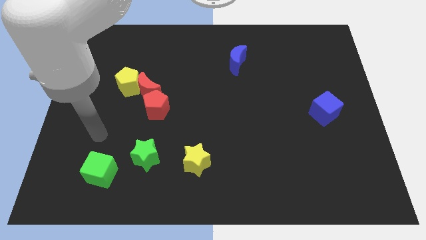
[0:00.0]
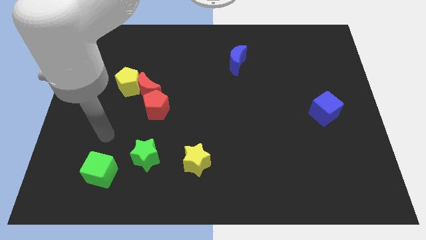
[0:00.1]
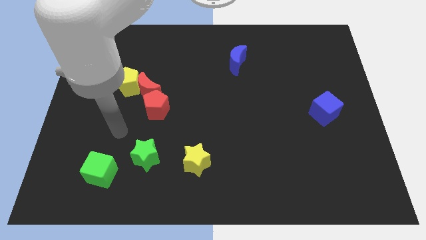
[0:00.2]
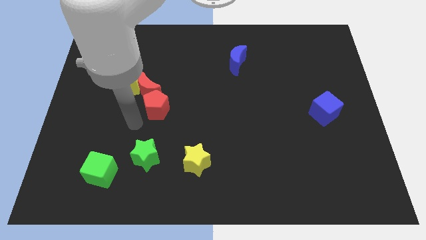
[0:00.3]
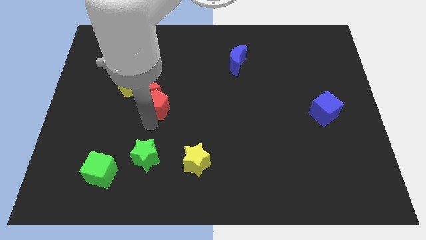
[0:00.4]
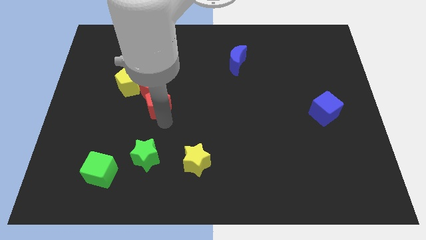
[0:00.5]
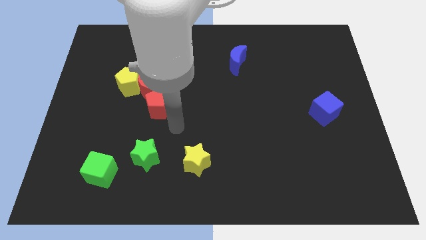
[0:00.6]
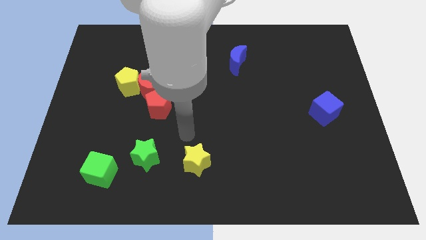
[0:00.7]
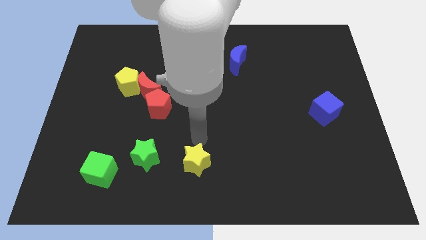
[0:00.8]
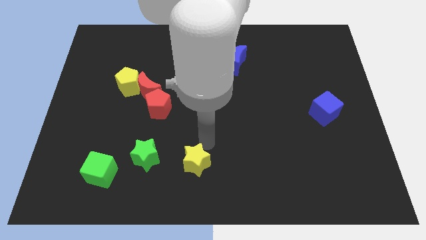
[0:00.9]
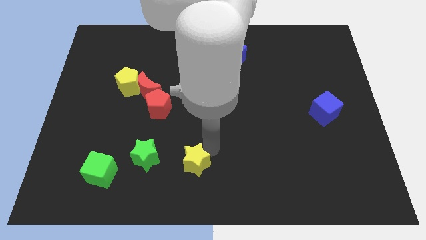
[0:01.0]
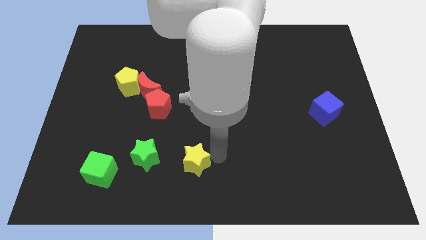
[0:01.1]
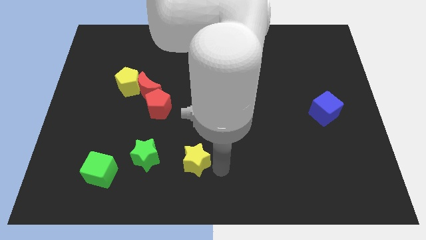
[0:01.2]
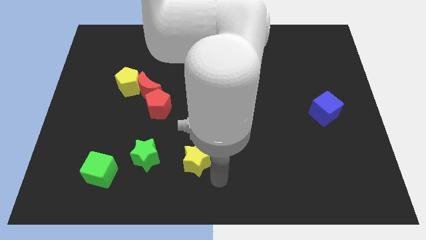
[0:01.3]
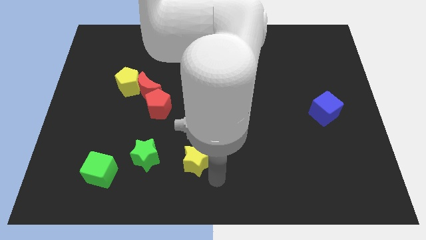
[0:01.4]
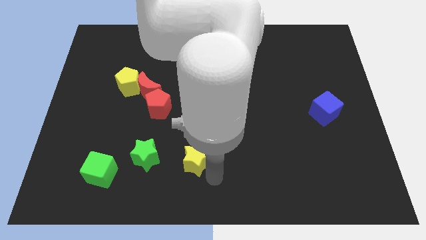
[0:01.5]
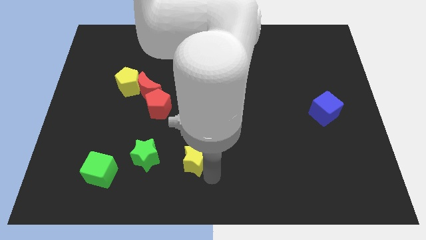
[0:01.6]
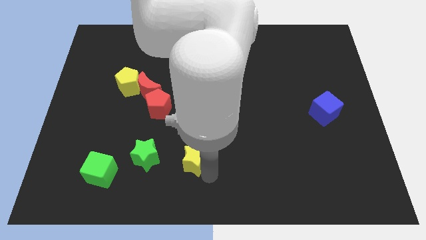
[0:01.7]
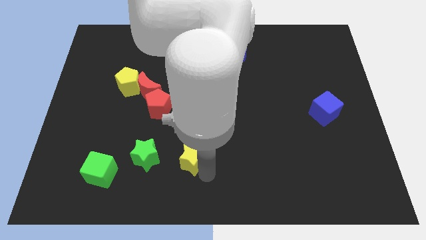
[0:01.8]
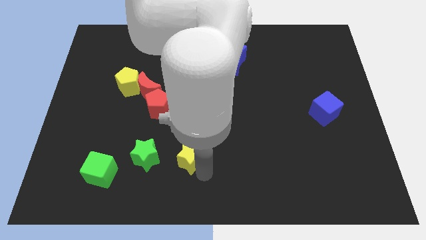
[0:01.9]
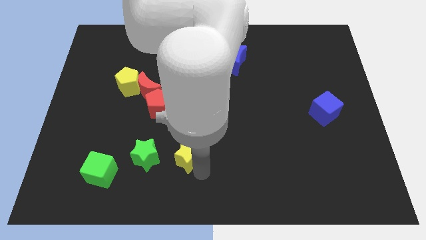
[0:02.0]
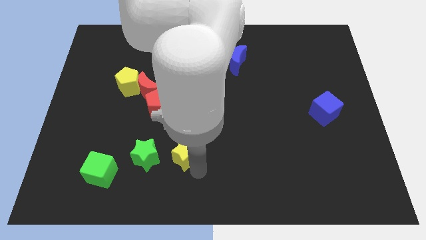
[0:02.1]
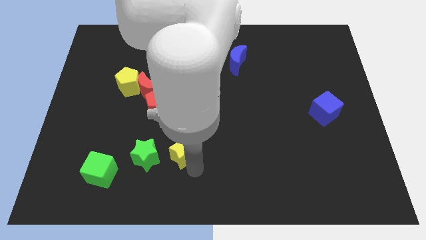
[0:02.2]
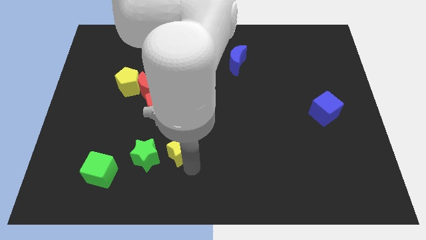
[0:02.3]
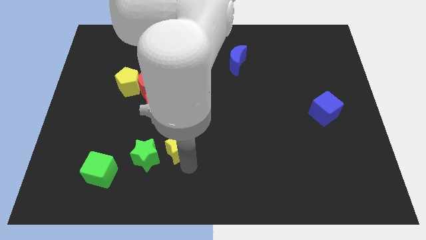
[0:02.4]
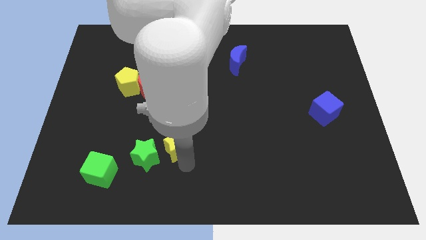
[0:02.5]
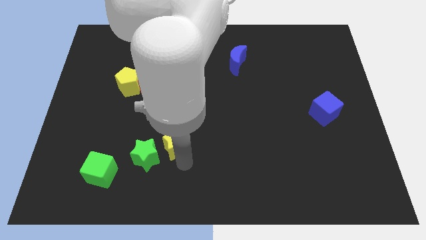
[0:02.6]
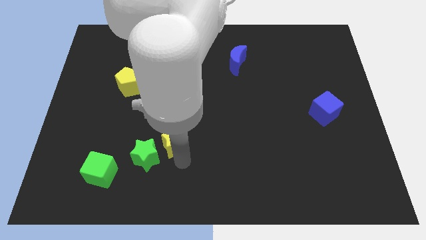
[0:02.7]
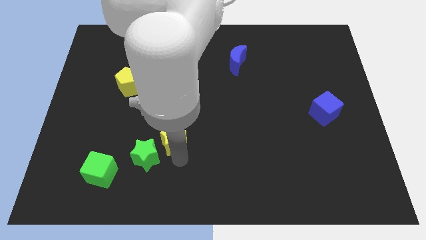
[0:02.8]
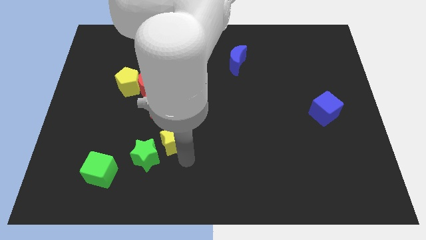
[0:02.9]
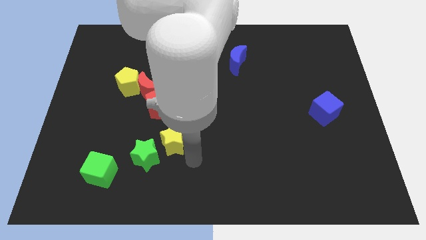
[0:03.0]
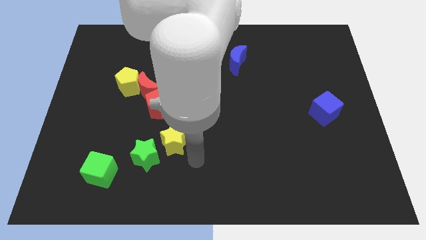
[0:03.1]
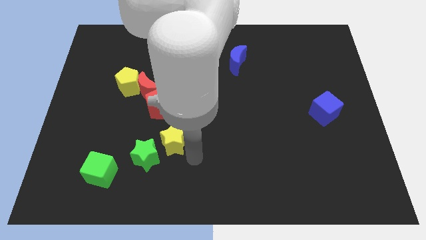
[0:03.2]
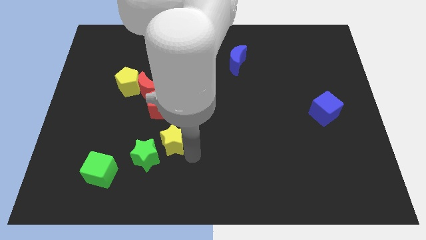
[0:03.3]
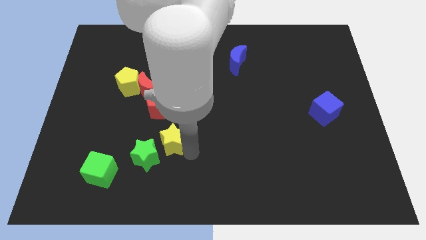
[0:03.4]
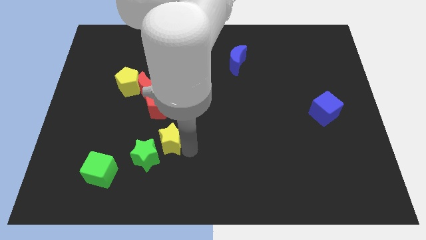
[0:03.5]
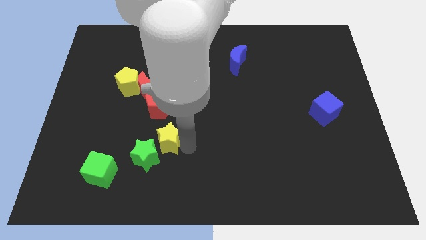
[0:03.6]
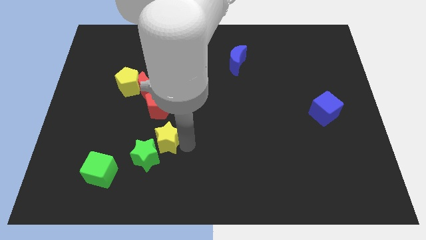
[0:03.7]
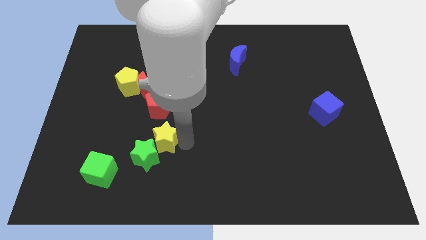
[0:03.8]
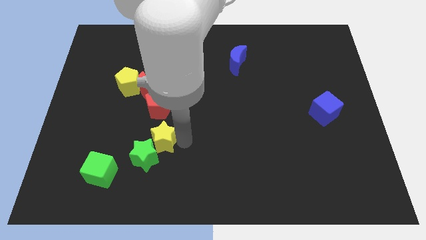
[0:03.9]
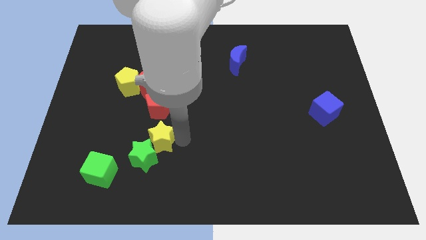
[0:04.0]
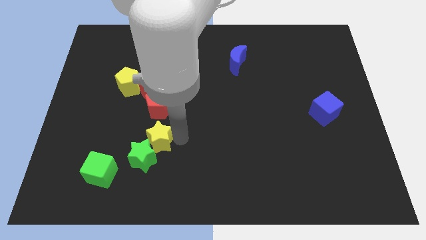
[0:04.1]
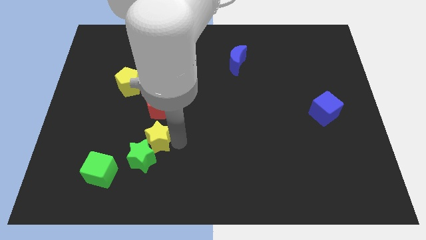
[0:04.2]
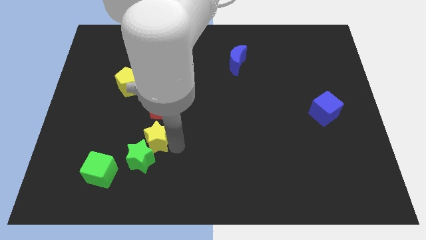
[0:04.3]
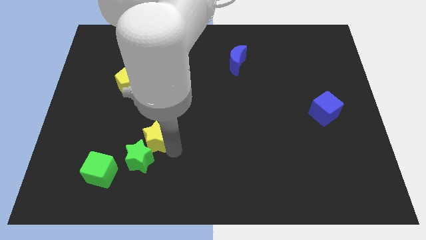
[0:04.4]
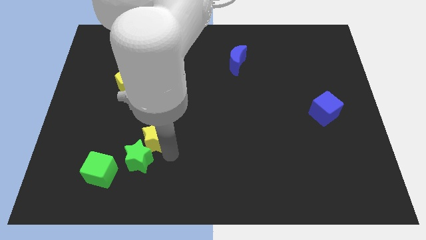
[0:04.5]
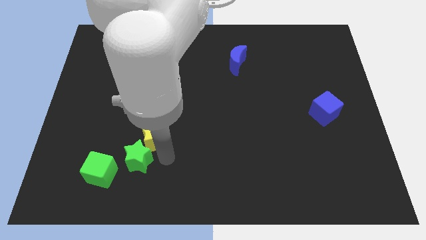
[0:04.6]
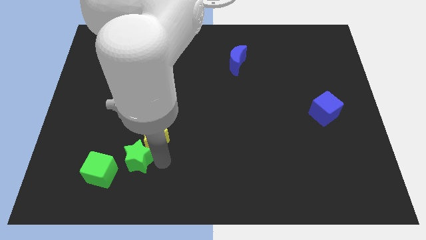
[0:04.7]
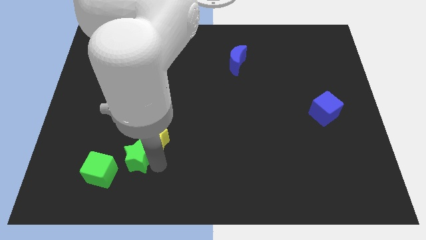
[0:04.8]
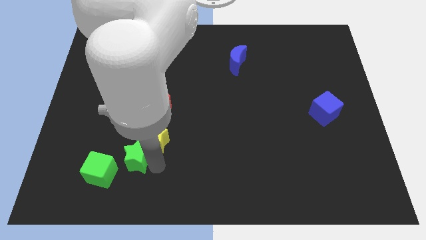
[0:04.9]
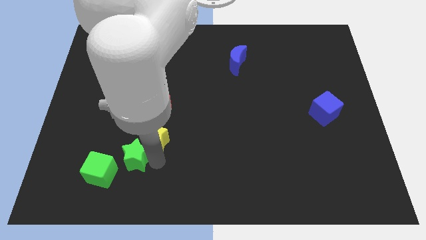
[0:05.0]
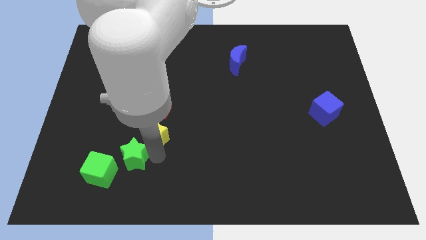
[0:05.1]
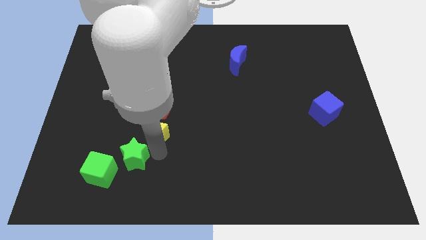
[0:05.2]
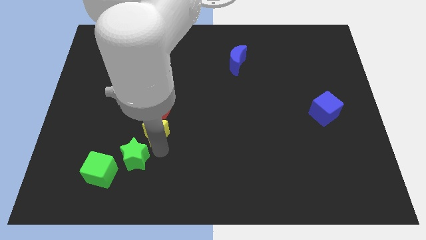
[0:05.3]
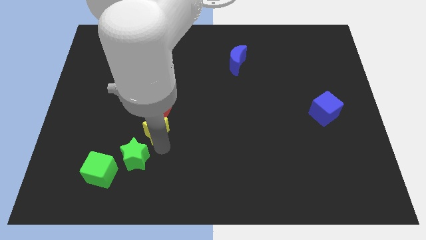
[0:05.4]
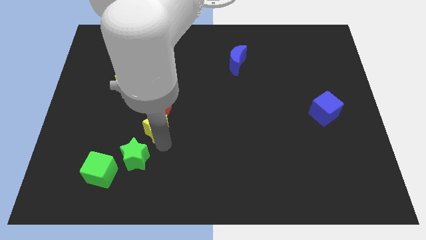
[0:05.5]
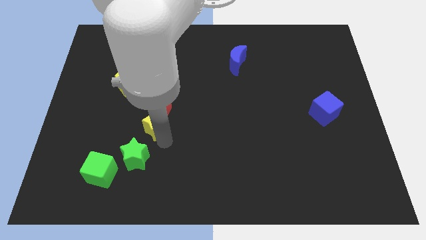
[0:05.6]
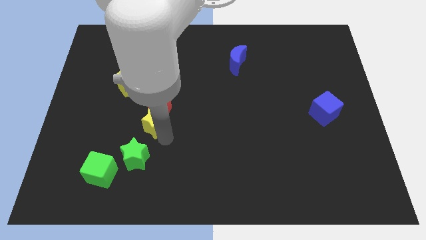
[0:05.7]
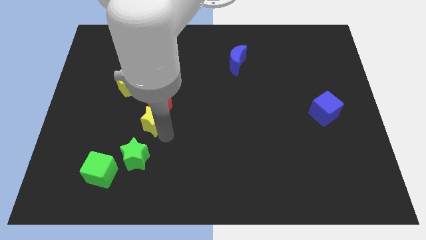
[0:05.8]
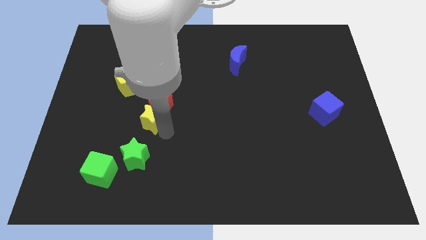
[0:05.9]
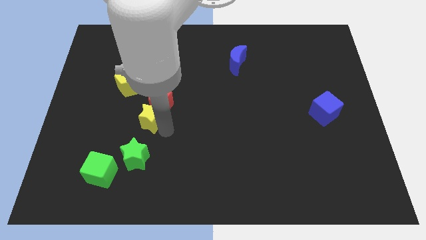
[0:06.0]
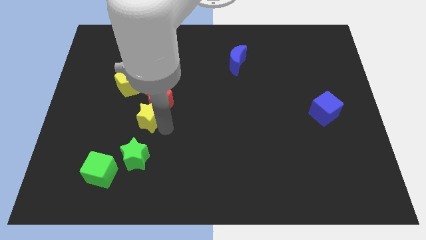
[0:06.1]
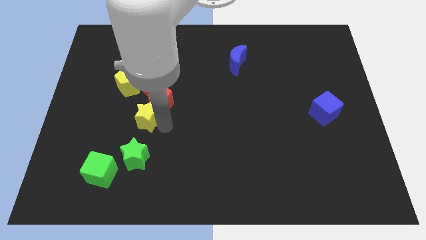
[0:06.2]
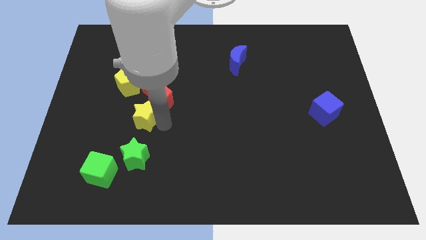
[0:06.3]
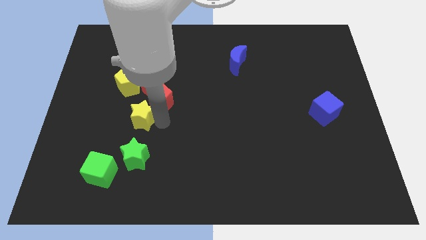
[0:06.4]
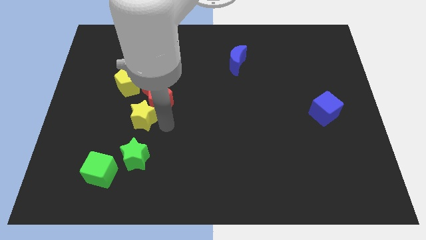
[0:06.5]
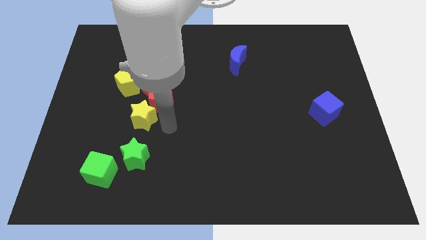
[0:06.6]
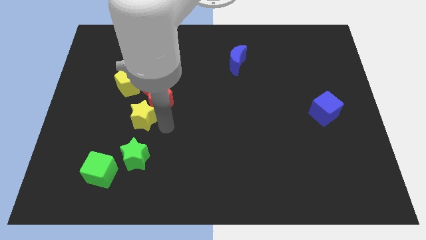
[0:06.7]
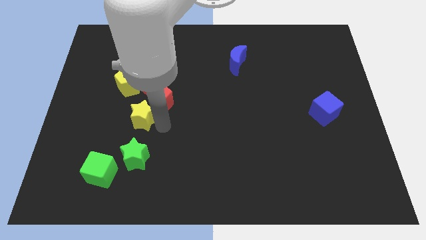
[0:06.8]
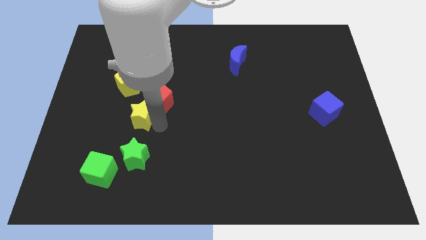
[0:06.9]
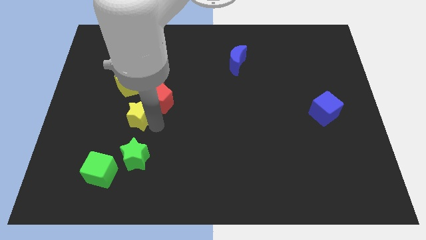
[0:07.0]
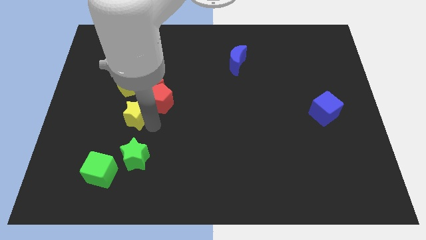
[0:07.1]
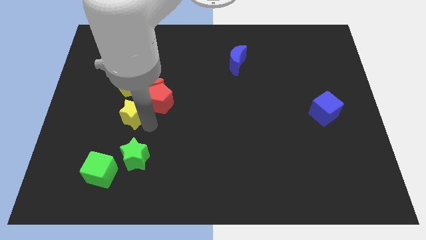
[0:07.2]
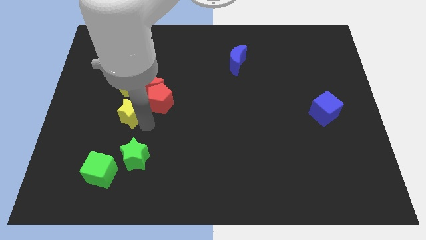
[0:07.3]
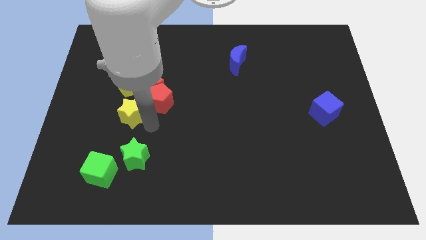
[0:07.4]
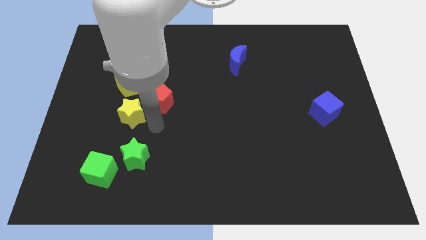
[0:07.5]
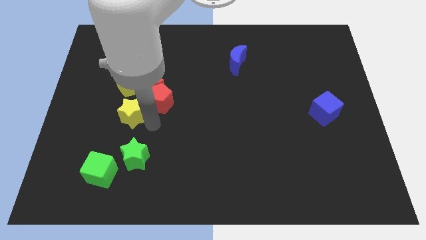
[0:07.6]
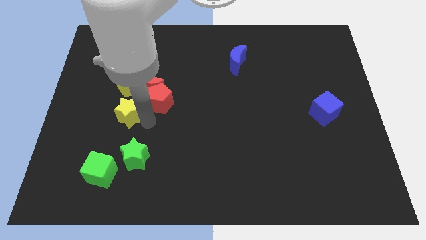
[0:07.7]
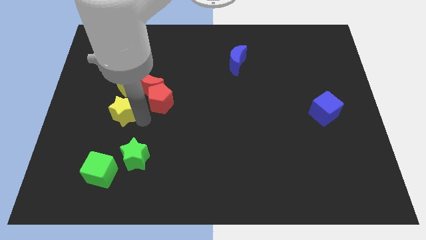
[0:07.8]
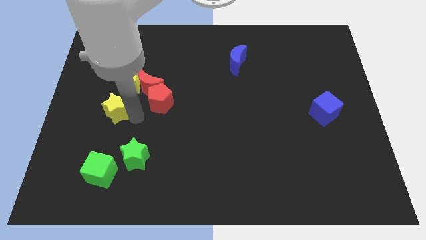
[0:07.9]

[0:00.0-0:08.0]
slide the yellow star diagonally down and to the left of the yellow pentagon

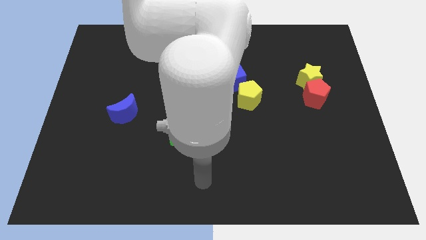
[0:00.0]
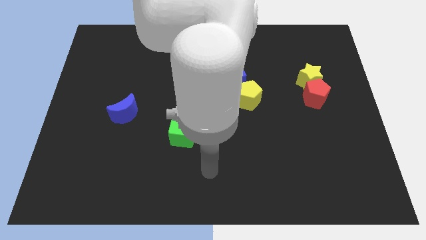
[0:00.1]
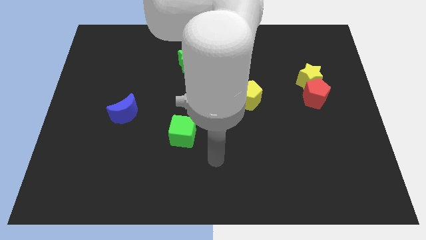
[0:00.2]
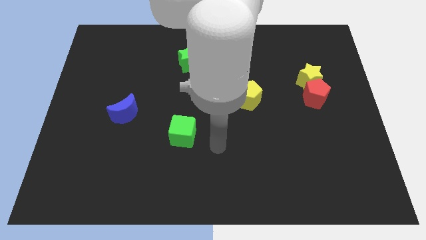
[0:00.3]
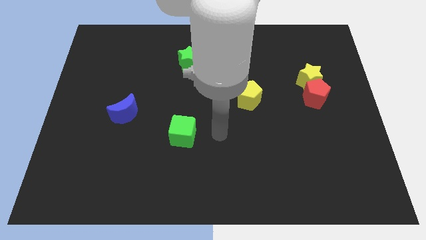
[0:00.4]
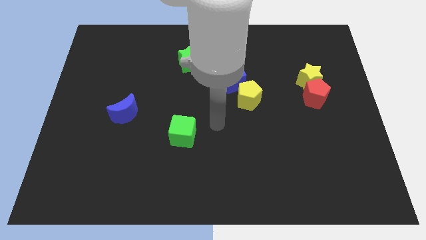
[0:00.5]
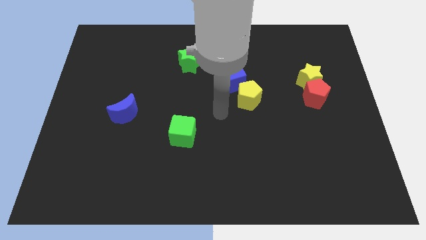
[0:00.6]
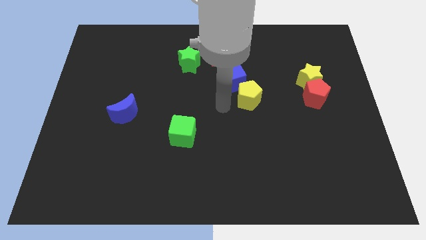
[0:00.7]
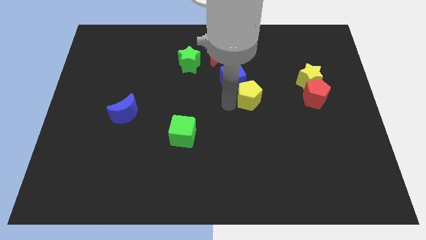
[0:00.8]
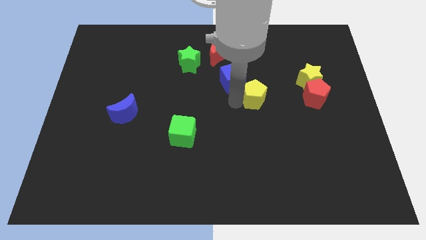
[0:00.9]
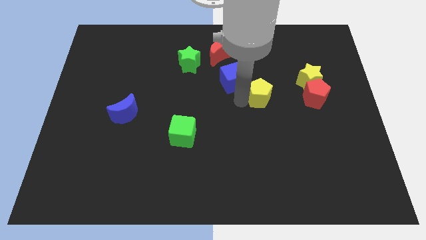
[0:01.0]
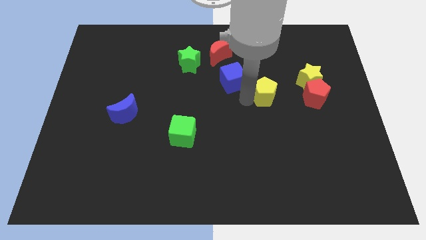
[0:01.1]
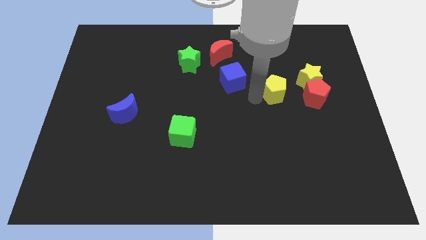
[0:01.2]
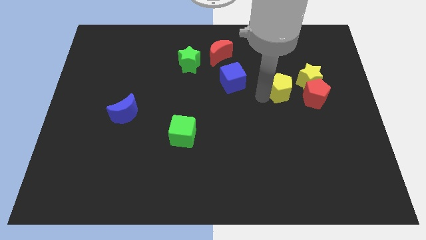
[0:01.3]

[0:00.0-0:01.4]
move the yellow pentagon to the top left of the red pentagon
